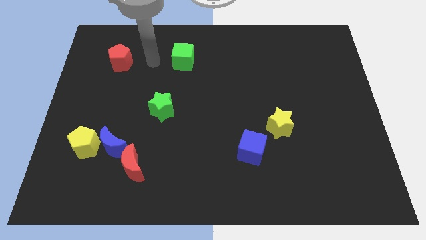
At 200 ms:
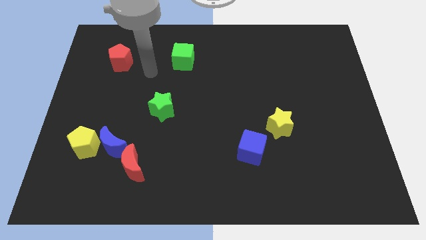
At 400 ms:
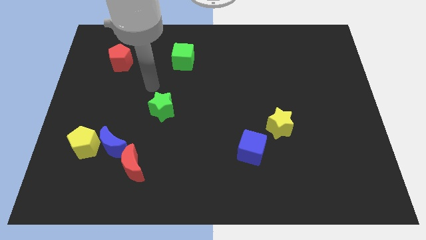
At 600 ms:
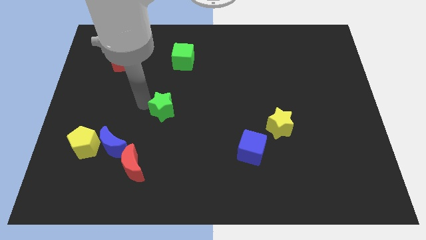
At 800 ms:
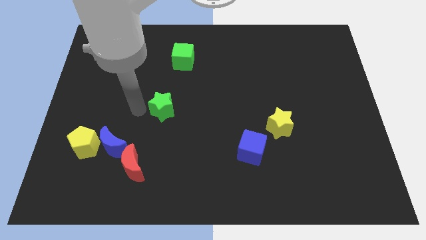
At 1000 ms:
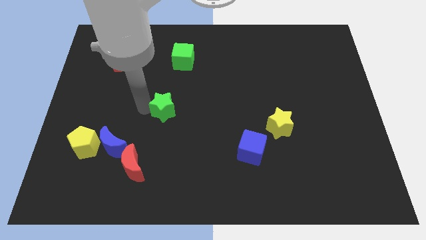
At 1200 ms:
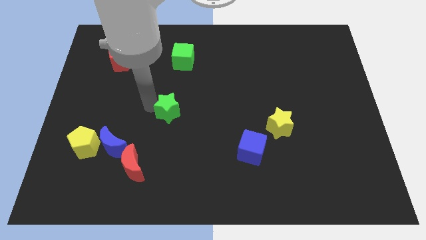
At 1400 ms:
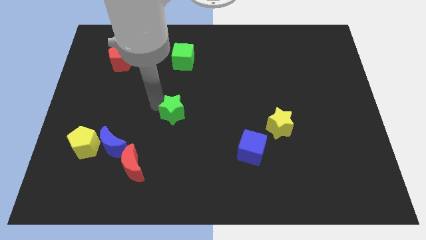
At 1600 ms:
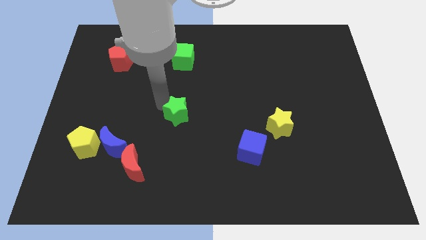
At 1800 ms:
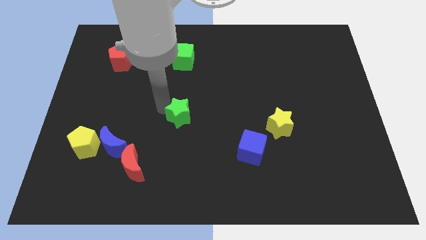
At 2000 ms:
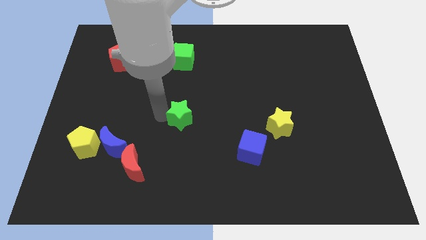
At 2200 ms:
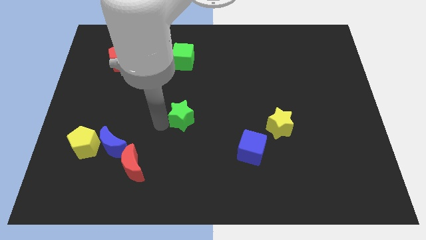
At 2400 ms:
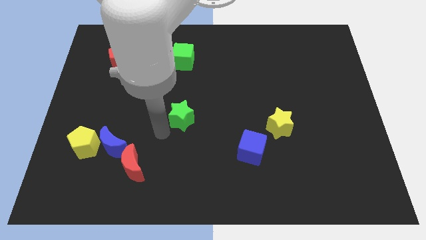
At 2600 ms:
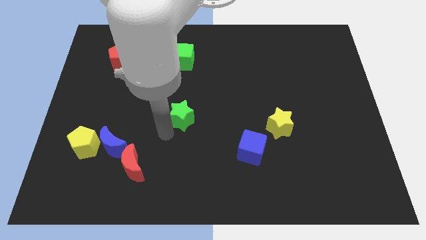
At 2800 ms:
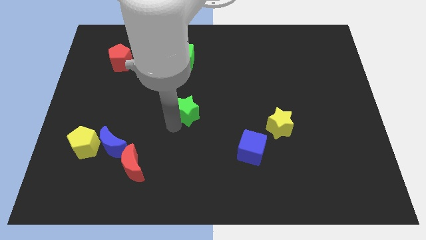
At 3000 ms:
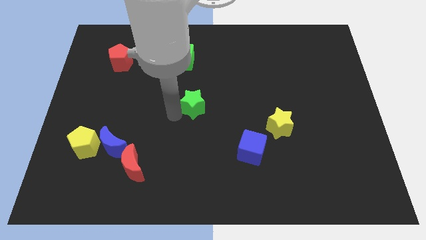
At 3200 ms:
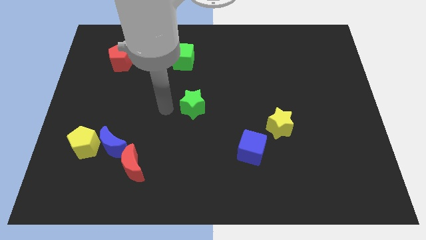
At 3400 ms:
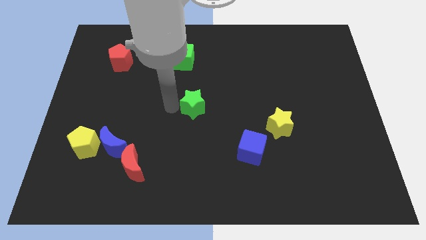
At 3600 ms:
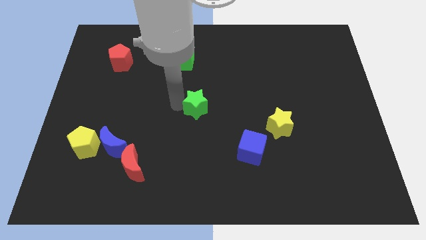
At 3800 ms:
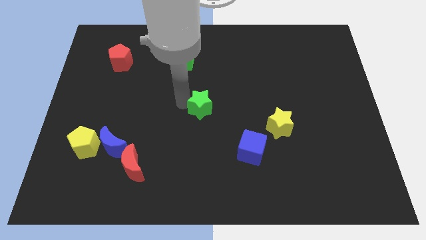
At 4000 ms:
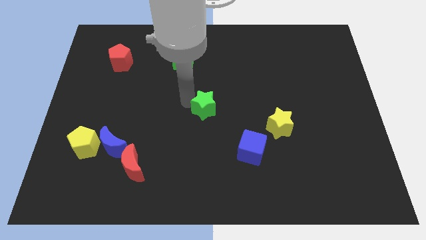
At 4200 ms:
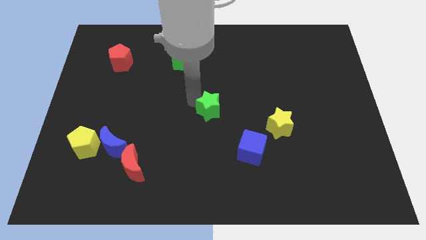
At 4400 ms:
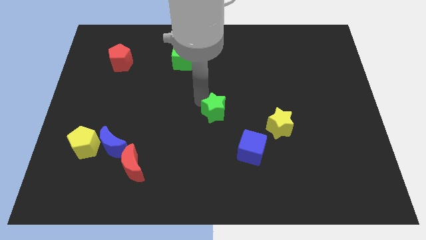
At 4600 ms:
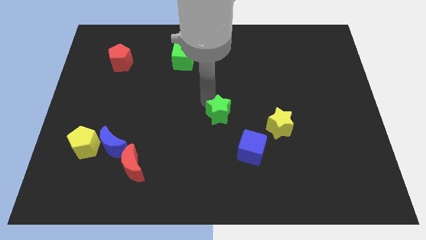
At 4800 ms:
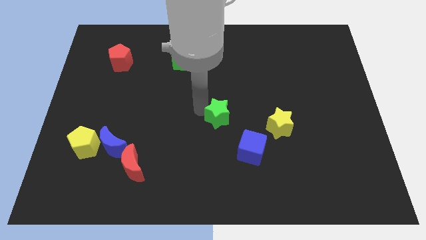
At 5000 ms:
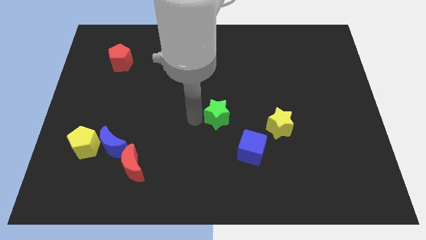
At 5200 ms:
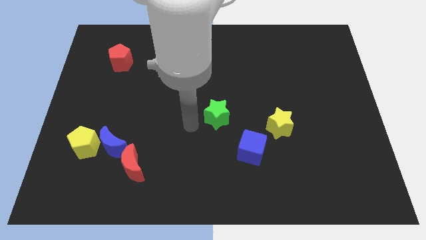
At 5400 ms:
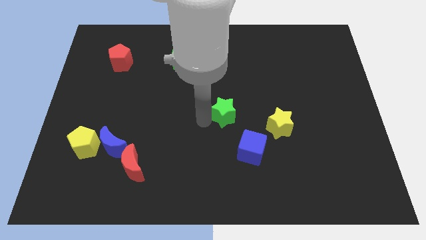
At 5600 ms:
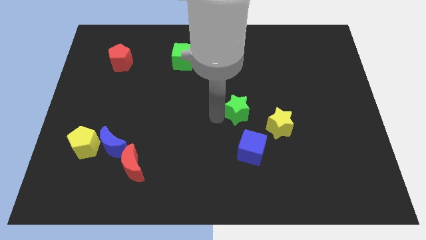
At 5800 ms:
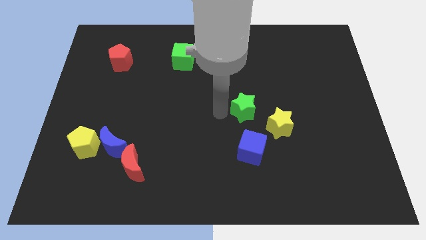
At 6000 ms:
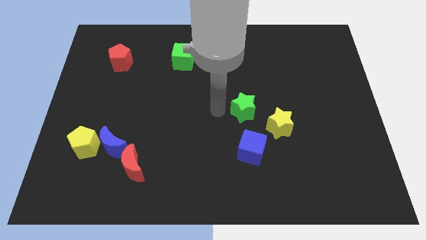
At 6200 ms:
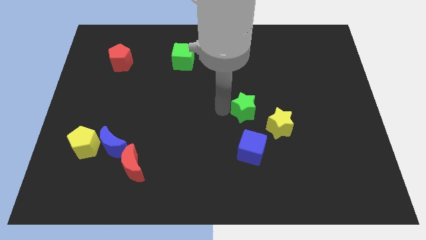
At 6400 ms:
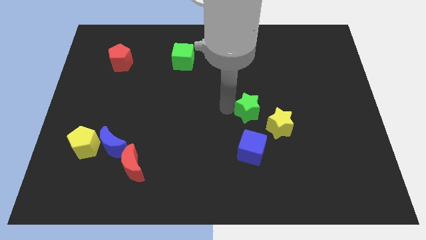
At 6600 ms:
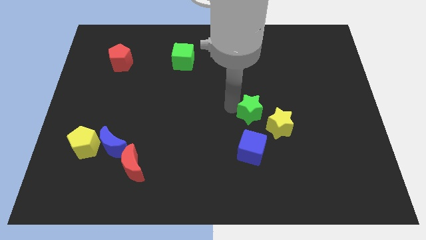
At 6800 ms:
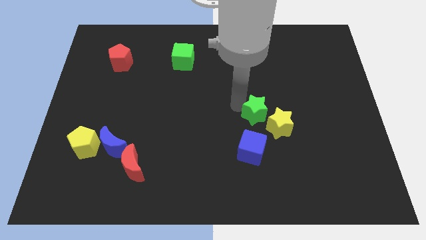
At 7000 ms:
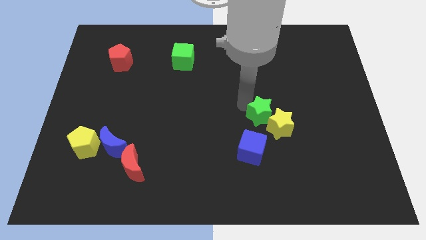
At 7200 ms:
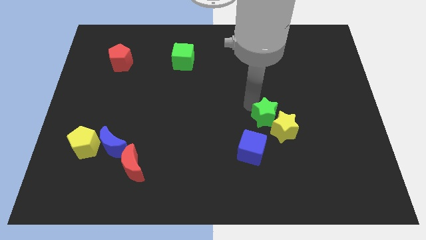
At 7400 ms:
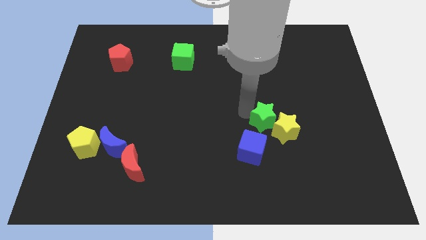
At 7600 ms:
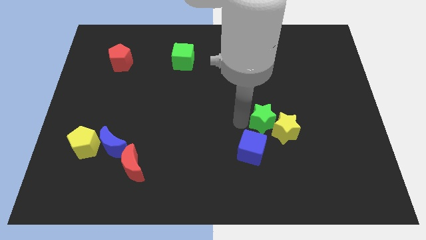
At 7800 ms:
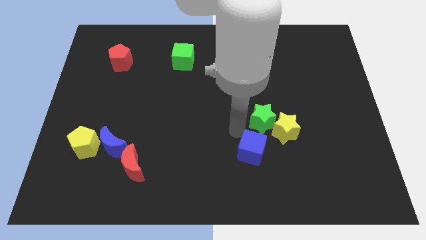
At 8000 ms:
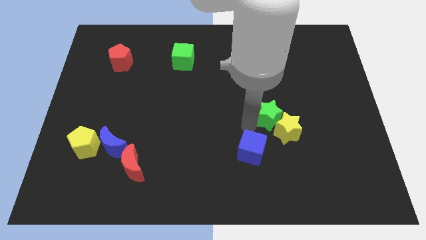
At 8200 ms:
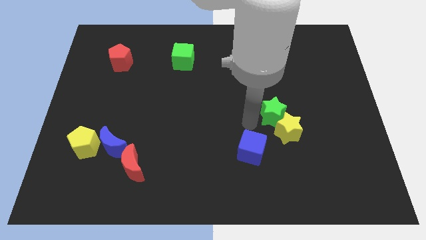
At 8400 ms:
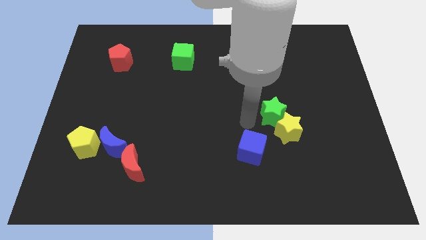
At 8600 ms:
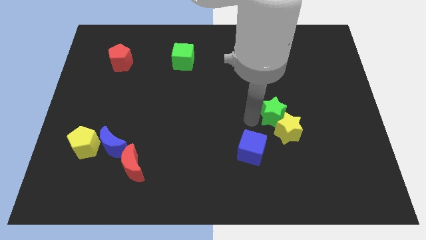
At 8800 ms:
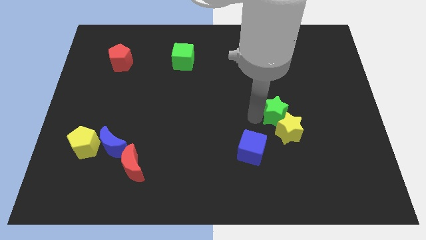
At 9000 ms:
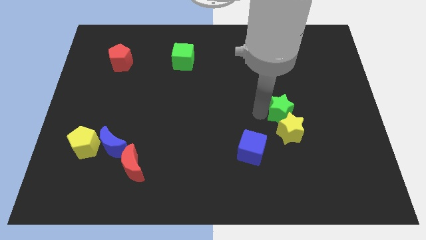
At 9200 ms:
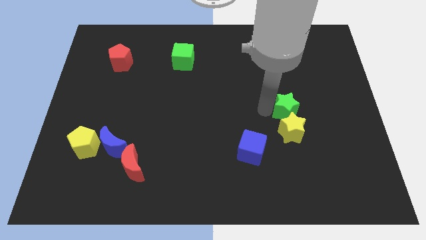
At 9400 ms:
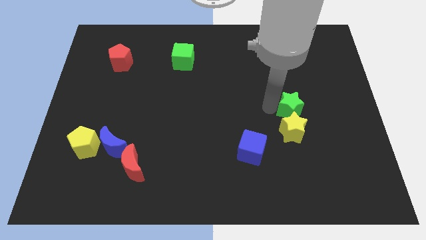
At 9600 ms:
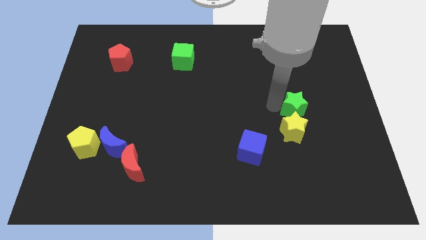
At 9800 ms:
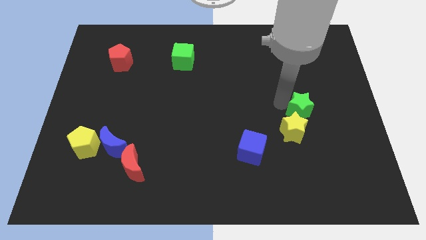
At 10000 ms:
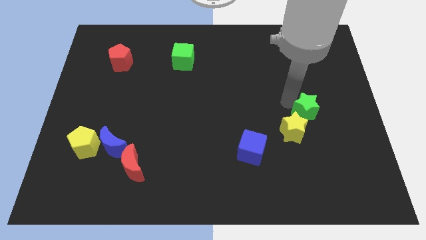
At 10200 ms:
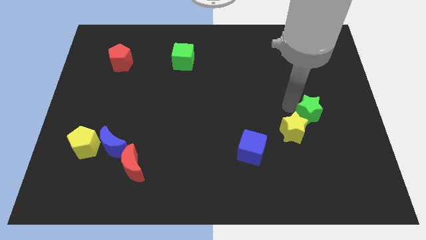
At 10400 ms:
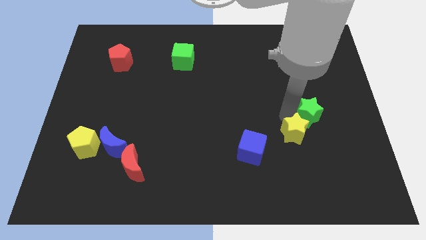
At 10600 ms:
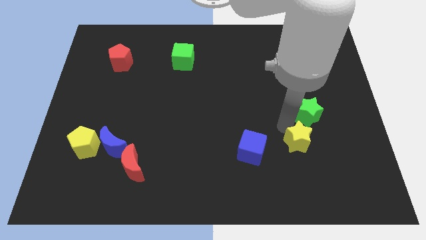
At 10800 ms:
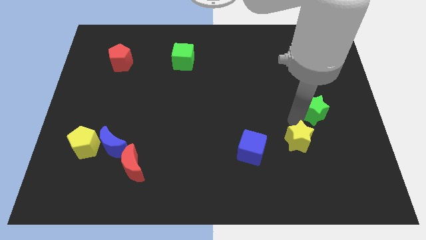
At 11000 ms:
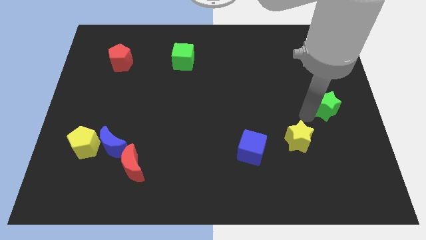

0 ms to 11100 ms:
put the green star to the right side of the board

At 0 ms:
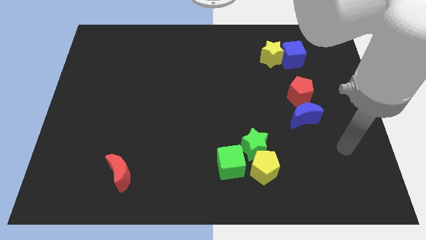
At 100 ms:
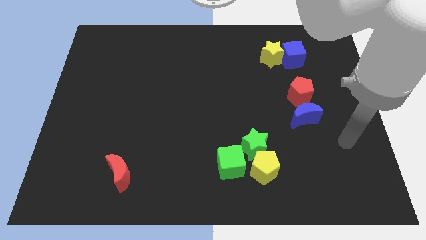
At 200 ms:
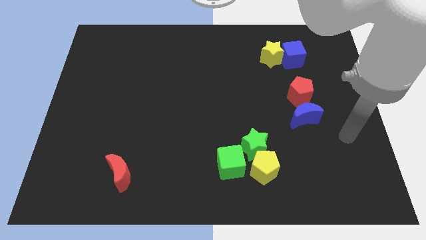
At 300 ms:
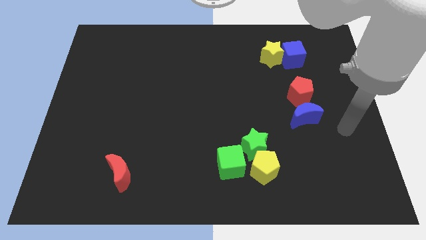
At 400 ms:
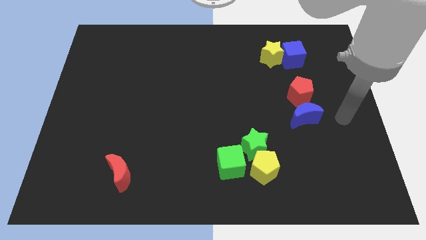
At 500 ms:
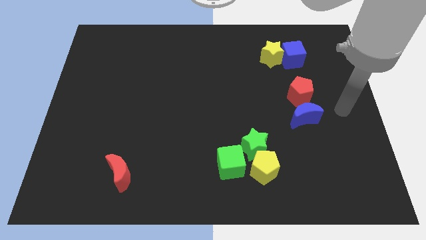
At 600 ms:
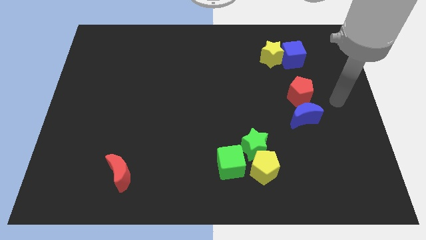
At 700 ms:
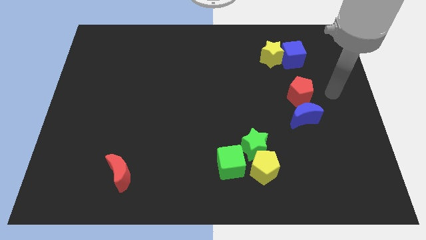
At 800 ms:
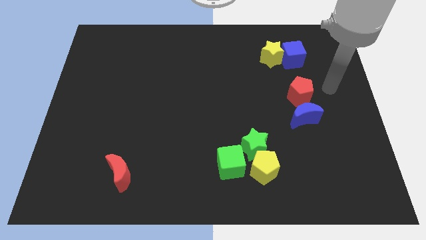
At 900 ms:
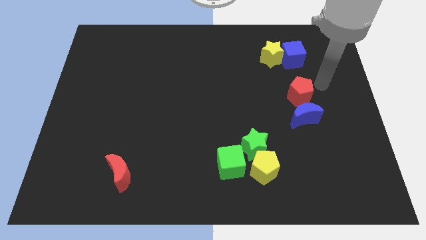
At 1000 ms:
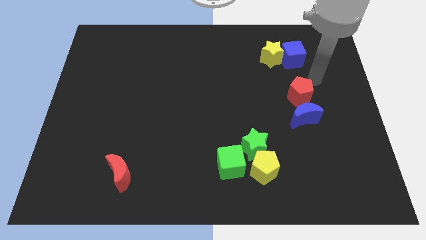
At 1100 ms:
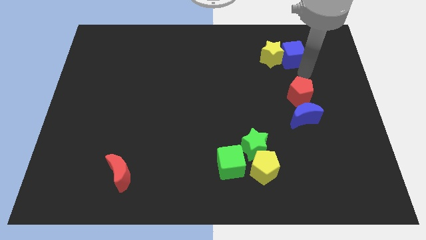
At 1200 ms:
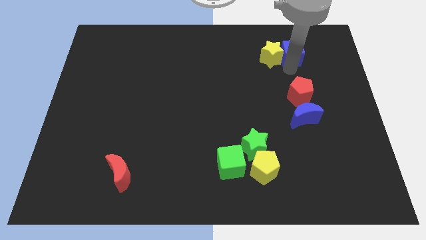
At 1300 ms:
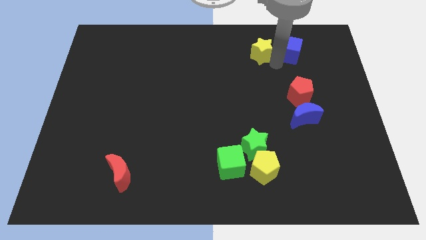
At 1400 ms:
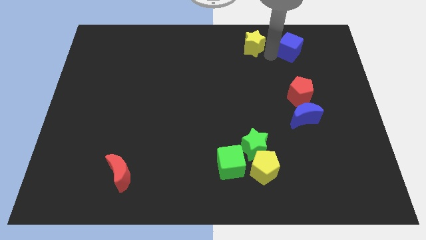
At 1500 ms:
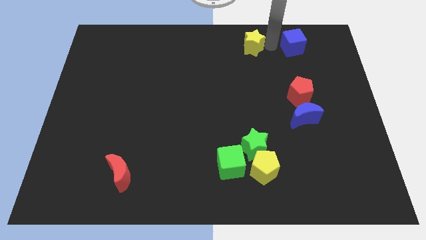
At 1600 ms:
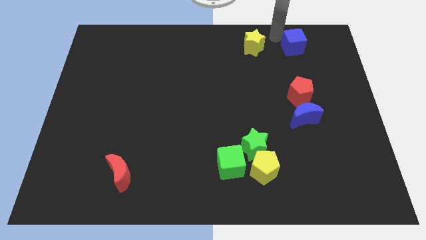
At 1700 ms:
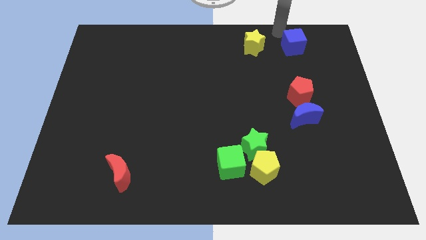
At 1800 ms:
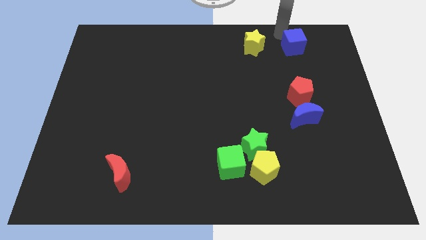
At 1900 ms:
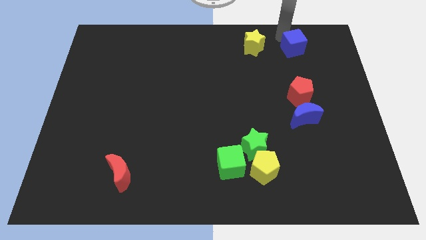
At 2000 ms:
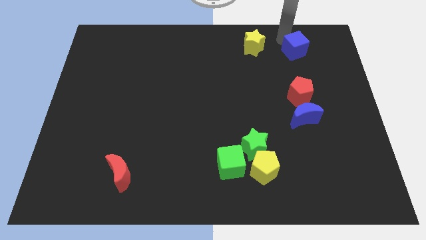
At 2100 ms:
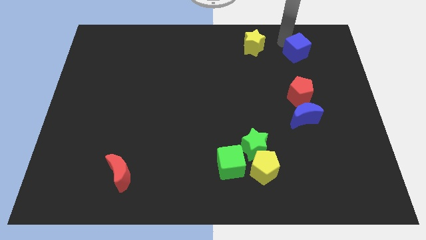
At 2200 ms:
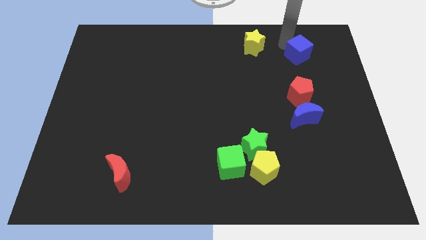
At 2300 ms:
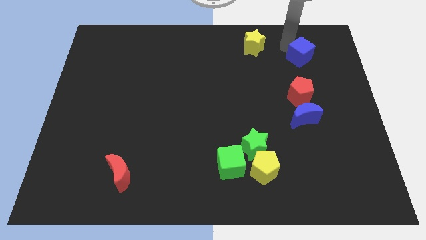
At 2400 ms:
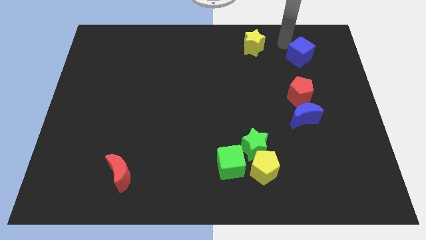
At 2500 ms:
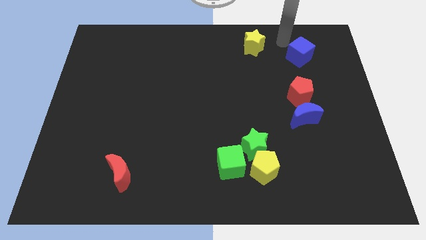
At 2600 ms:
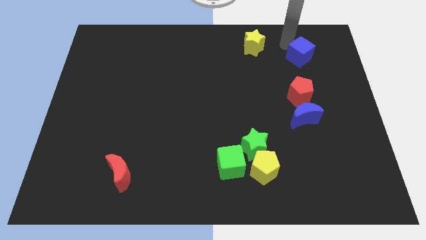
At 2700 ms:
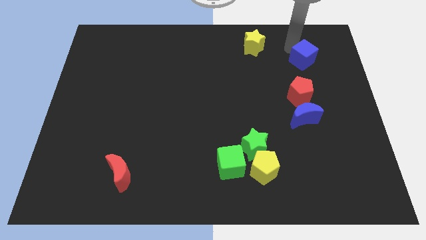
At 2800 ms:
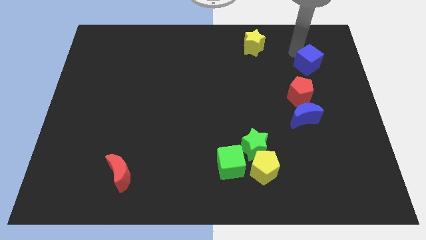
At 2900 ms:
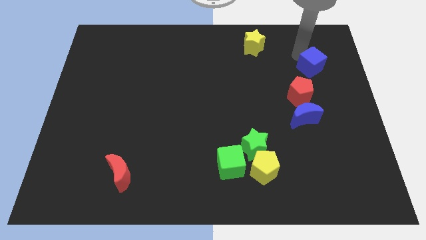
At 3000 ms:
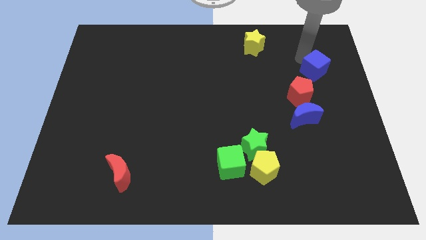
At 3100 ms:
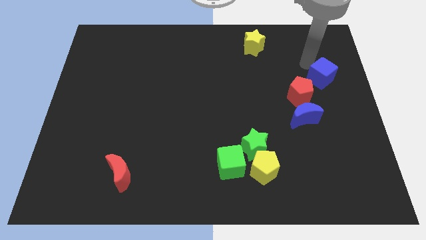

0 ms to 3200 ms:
push the blue cube to the right side
